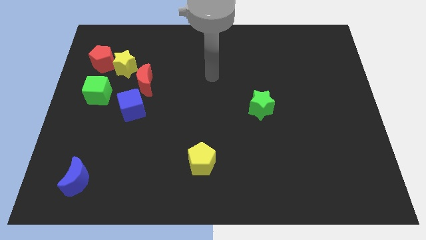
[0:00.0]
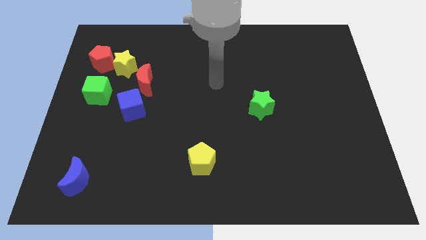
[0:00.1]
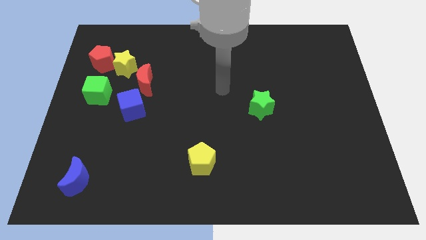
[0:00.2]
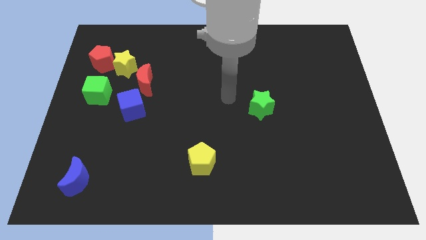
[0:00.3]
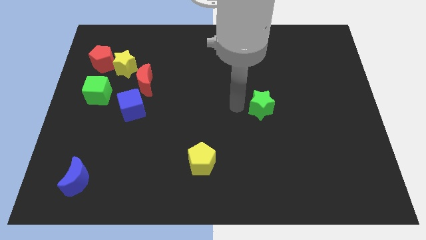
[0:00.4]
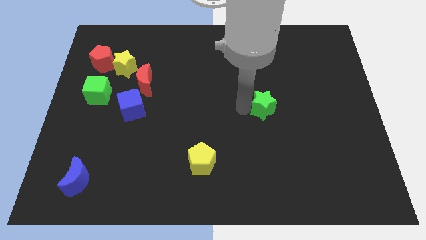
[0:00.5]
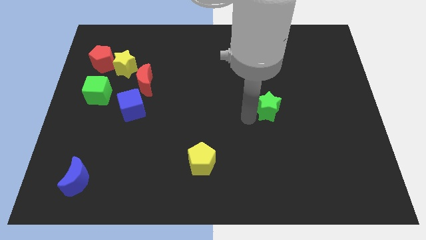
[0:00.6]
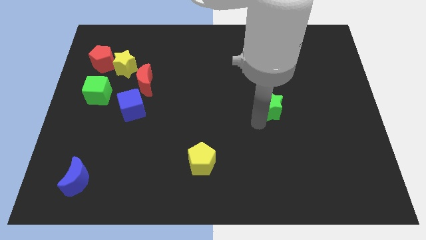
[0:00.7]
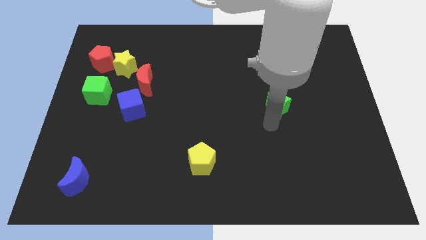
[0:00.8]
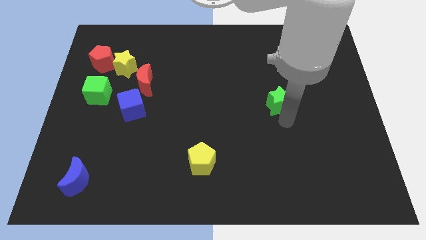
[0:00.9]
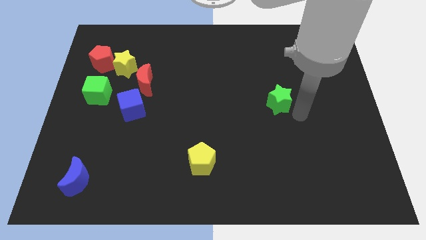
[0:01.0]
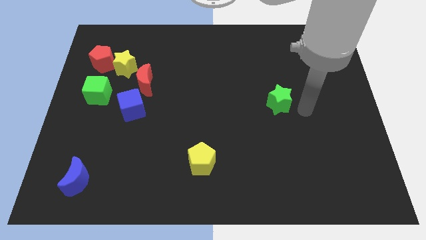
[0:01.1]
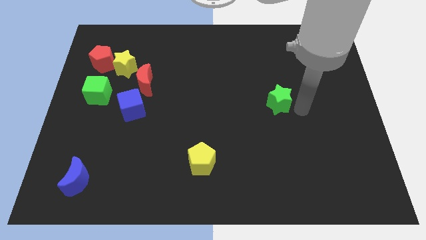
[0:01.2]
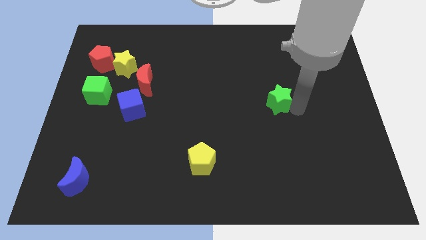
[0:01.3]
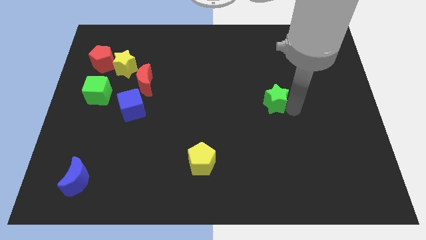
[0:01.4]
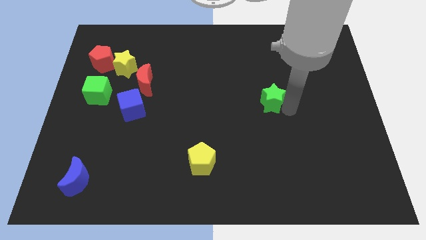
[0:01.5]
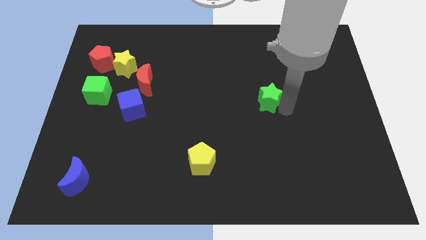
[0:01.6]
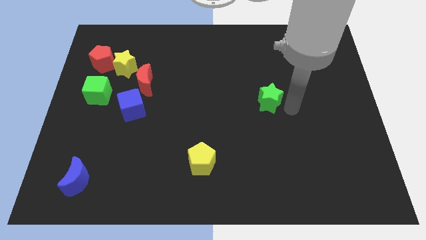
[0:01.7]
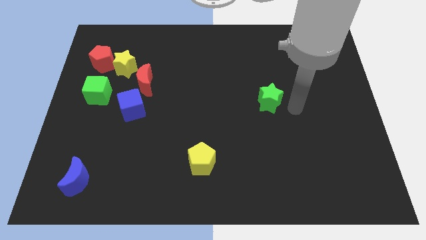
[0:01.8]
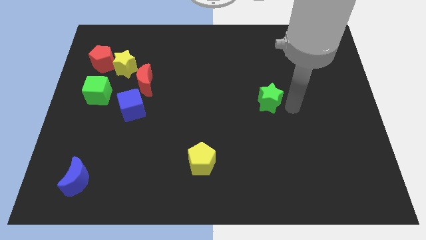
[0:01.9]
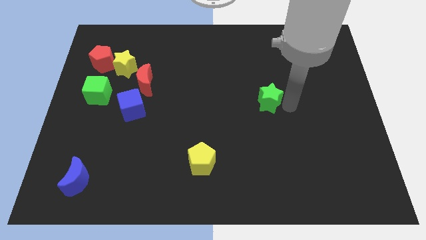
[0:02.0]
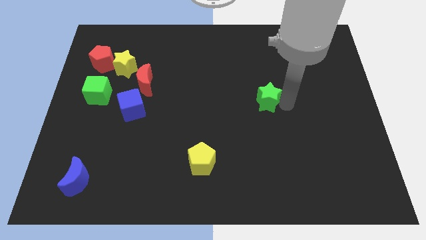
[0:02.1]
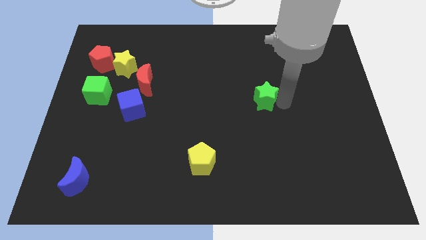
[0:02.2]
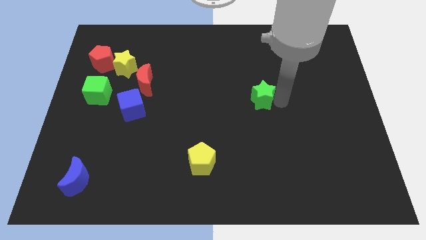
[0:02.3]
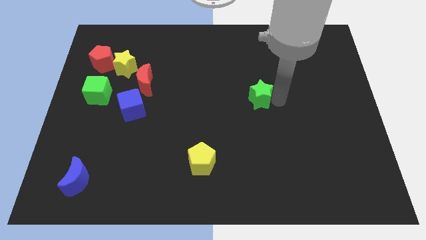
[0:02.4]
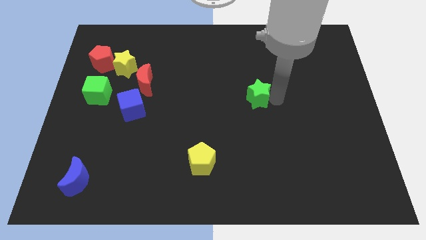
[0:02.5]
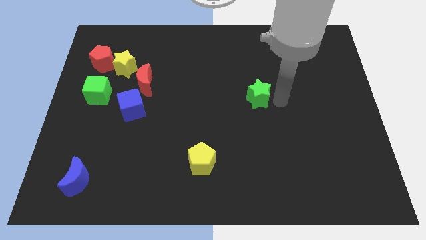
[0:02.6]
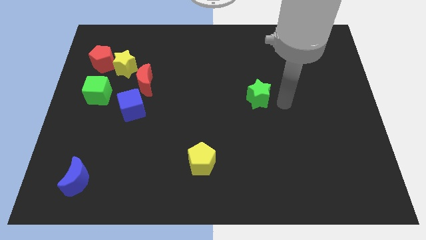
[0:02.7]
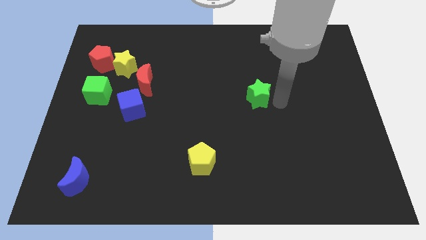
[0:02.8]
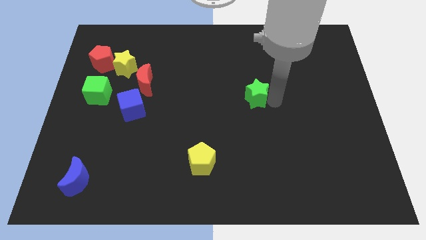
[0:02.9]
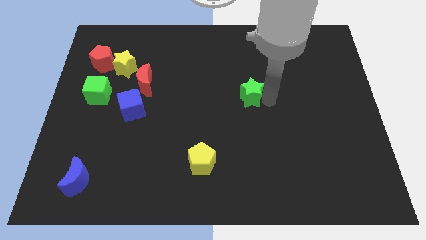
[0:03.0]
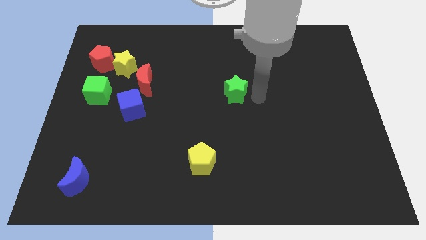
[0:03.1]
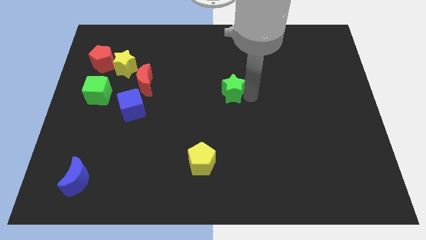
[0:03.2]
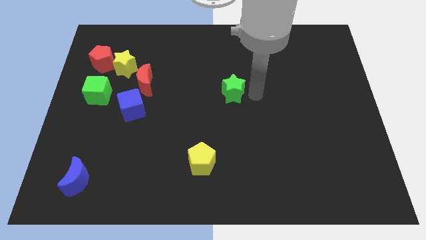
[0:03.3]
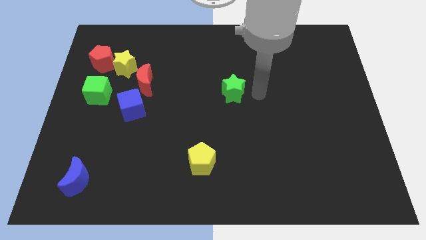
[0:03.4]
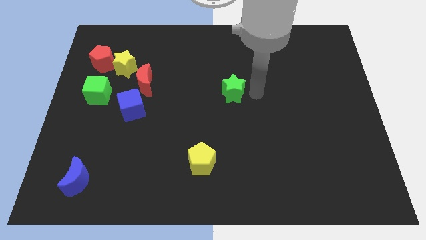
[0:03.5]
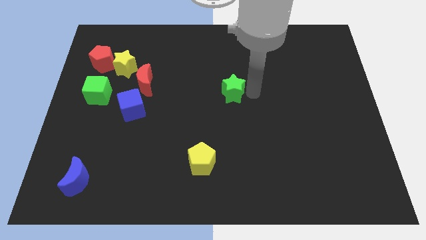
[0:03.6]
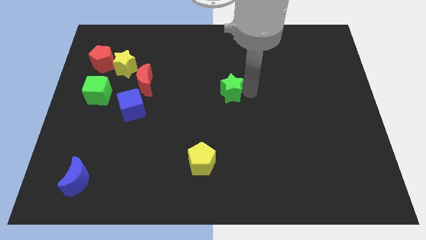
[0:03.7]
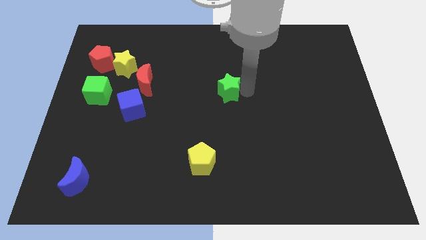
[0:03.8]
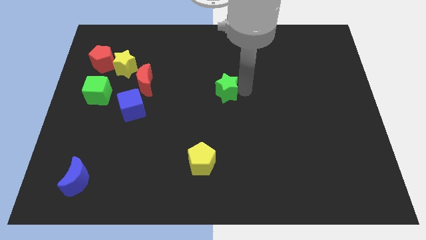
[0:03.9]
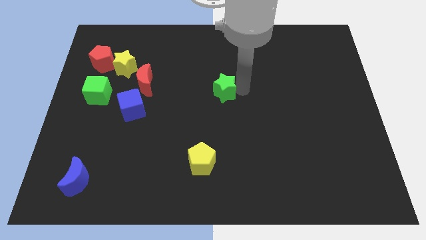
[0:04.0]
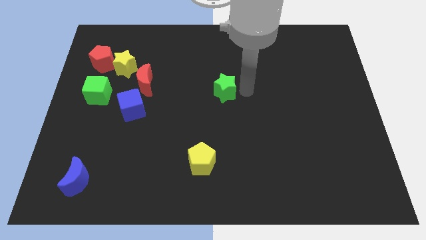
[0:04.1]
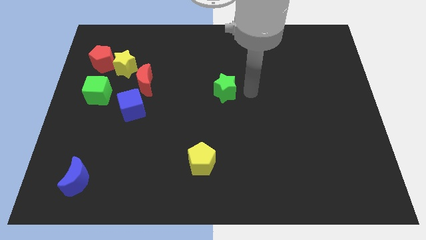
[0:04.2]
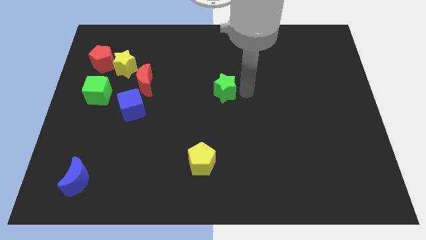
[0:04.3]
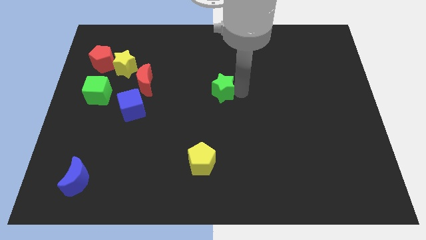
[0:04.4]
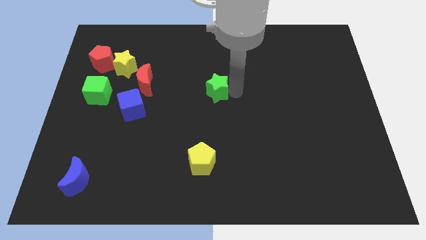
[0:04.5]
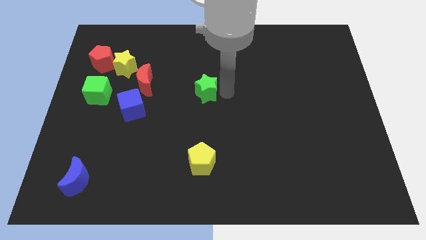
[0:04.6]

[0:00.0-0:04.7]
slide the green star right of the red moon

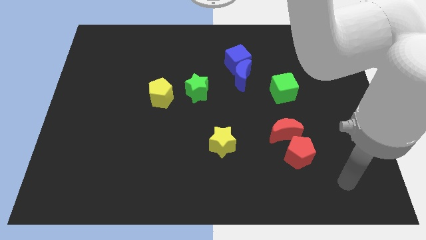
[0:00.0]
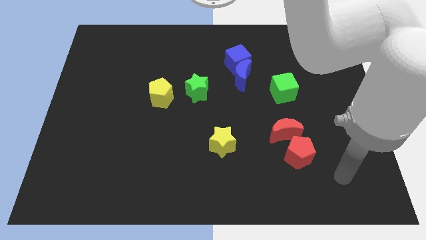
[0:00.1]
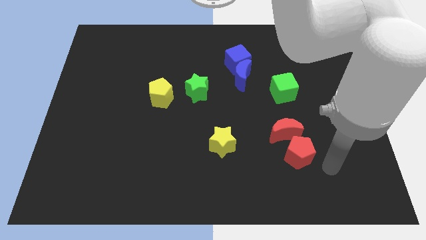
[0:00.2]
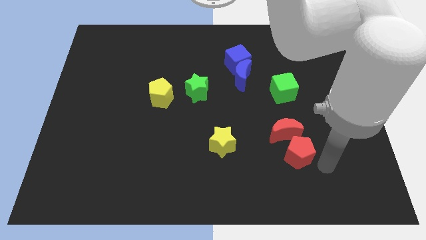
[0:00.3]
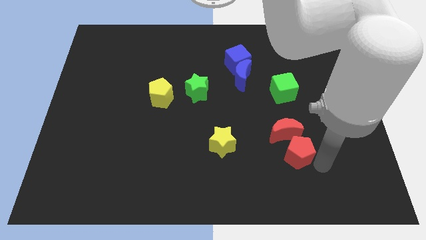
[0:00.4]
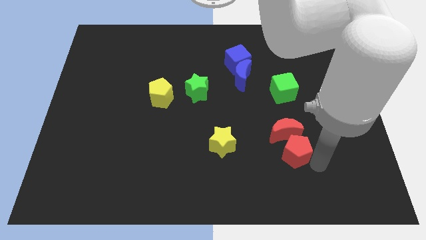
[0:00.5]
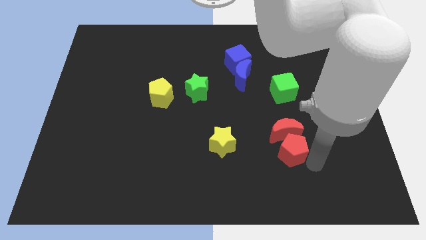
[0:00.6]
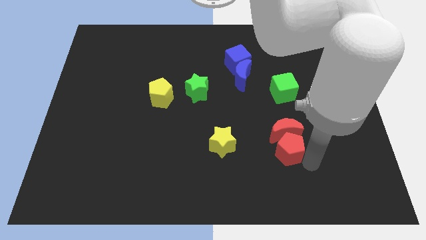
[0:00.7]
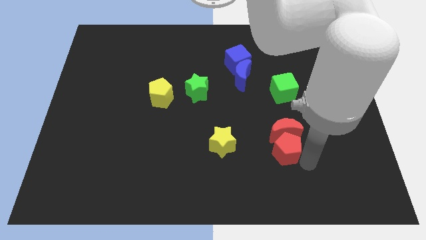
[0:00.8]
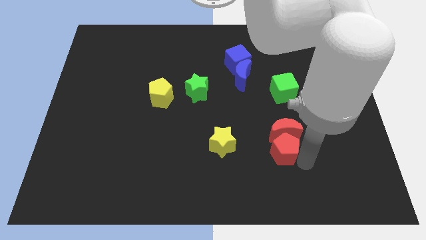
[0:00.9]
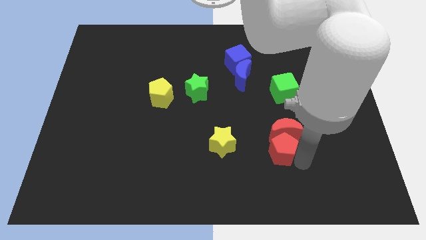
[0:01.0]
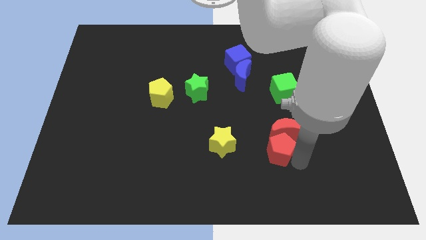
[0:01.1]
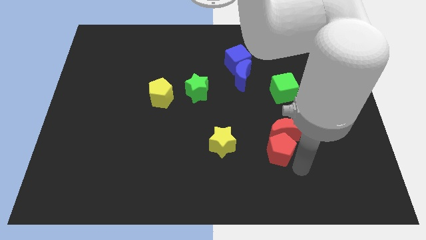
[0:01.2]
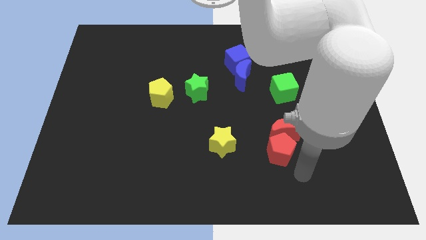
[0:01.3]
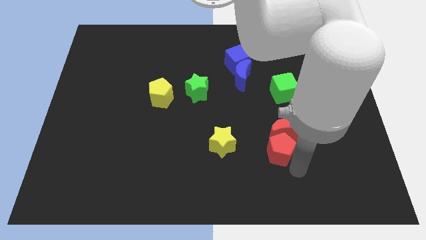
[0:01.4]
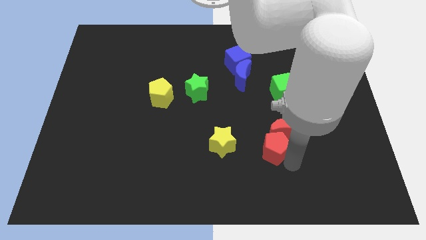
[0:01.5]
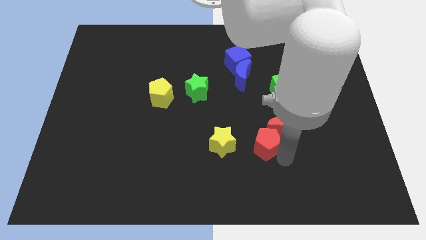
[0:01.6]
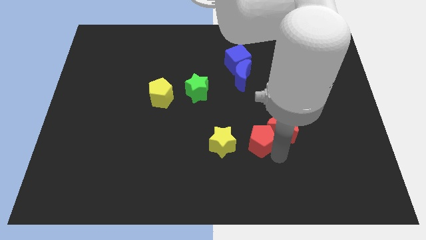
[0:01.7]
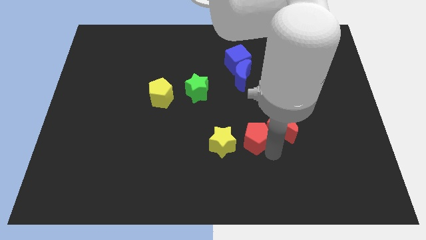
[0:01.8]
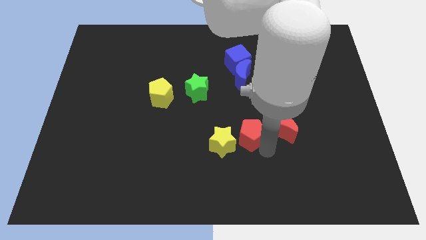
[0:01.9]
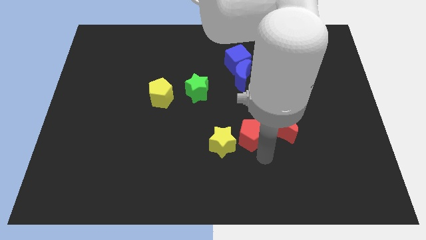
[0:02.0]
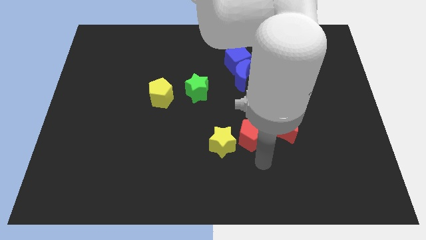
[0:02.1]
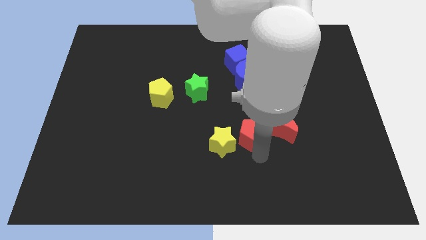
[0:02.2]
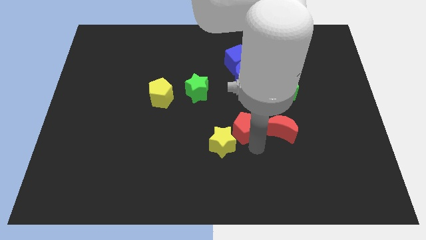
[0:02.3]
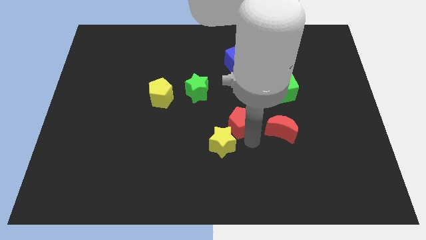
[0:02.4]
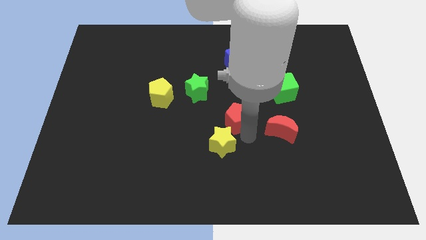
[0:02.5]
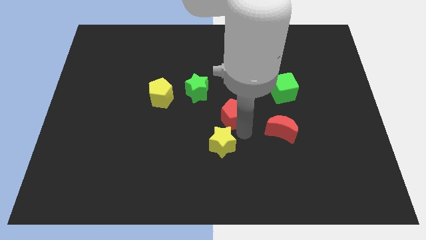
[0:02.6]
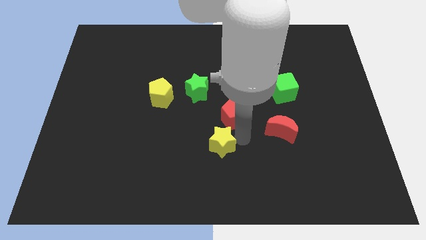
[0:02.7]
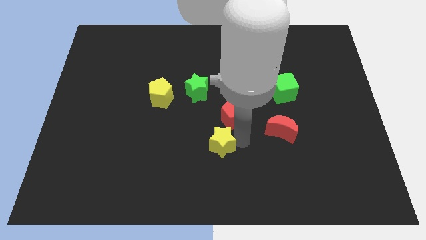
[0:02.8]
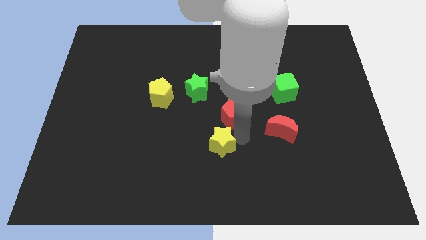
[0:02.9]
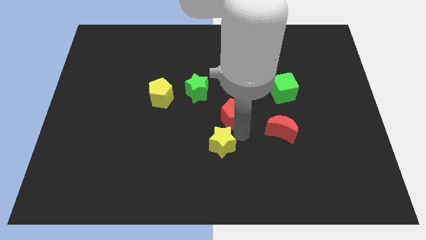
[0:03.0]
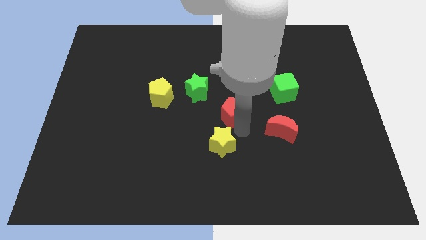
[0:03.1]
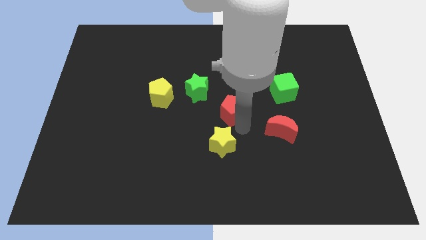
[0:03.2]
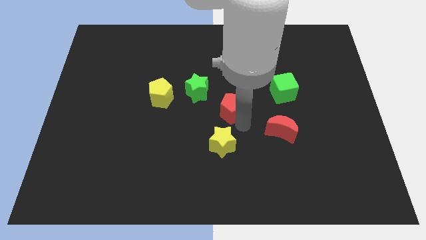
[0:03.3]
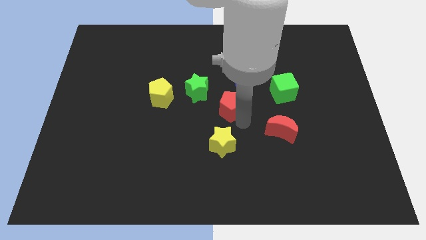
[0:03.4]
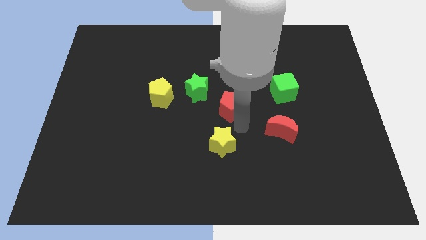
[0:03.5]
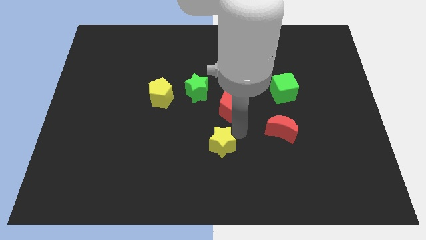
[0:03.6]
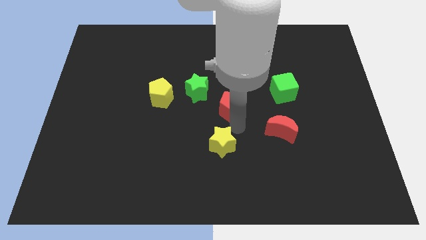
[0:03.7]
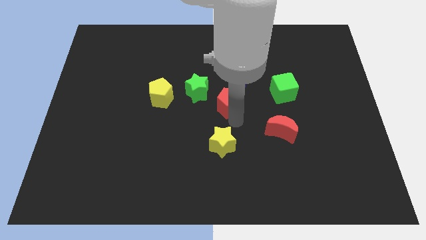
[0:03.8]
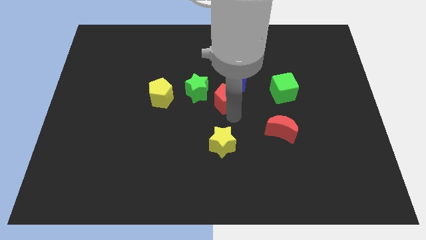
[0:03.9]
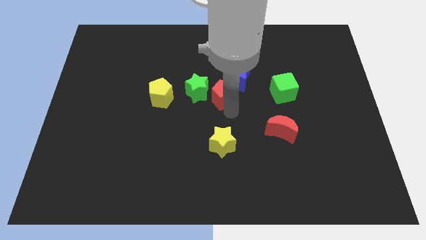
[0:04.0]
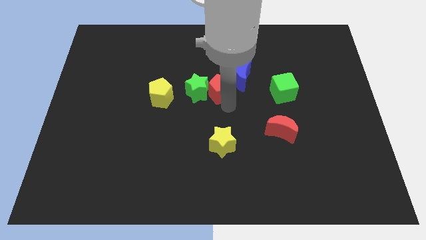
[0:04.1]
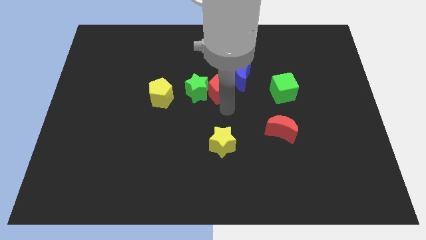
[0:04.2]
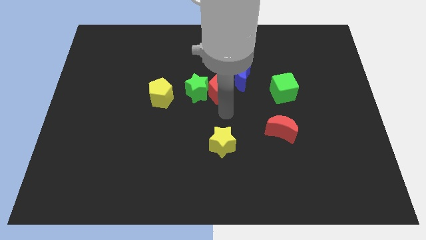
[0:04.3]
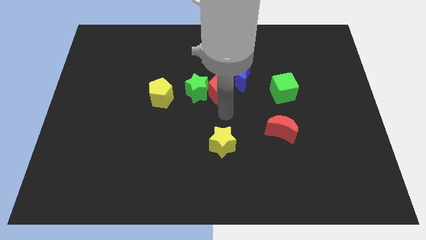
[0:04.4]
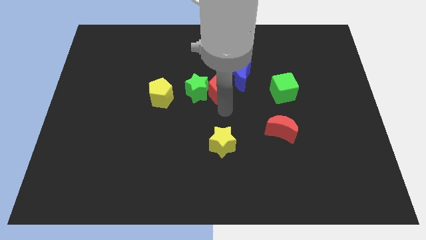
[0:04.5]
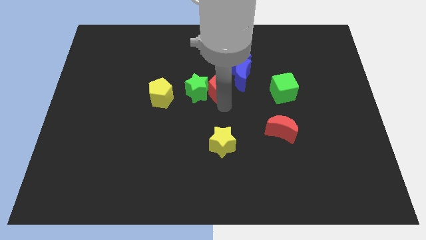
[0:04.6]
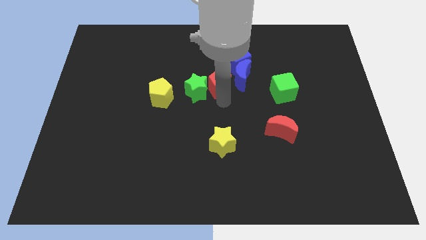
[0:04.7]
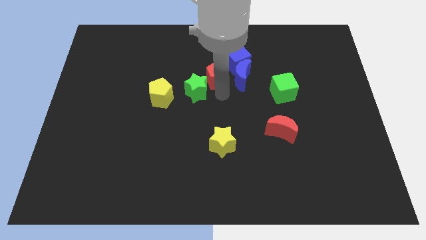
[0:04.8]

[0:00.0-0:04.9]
slide the red pentagon to the top left of the blue moon
